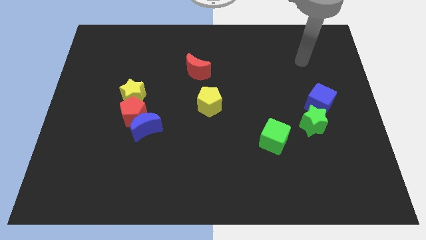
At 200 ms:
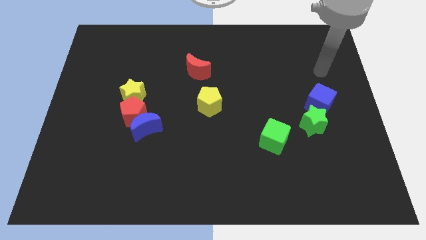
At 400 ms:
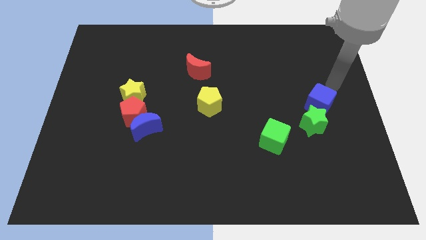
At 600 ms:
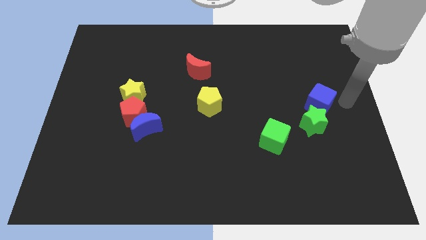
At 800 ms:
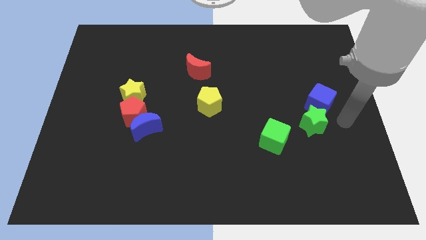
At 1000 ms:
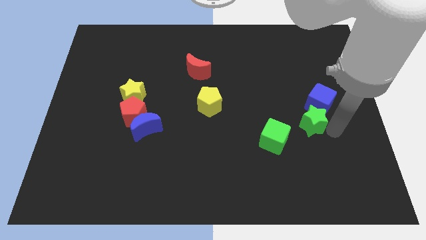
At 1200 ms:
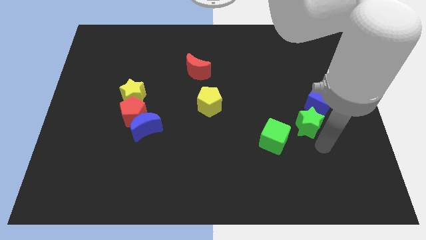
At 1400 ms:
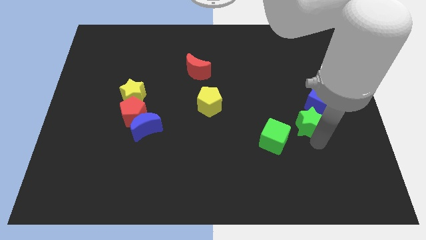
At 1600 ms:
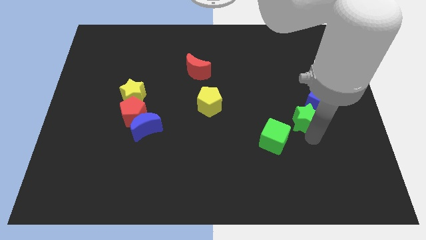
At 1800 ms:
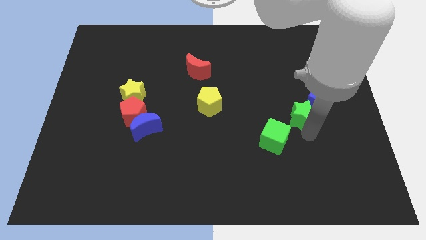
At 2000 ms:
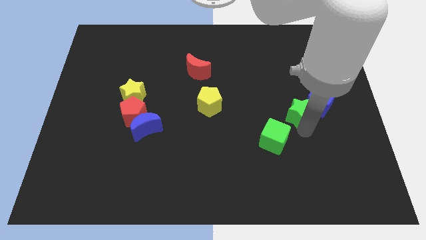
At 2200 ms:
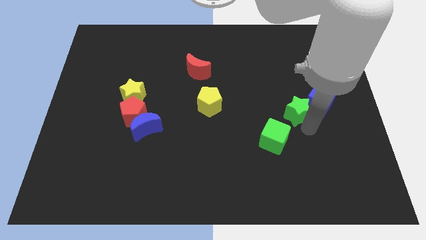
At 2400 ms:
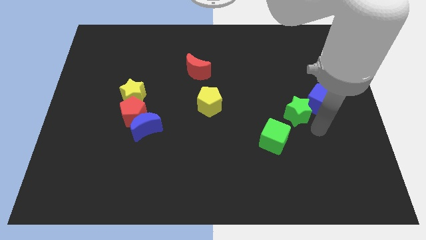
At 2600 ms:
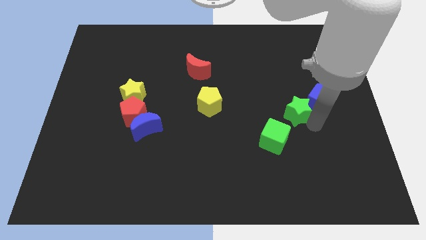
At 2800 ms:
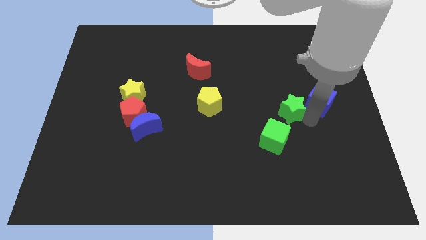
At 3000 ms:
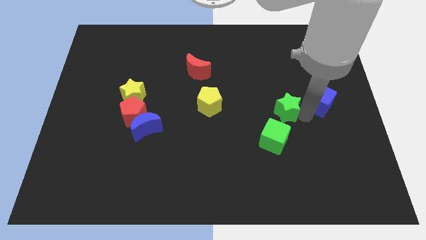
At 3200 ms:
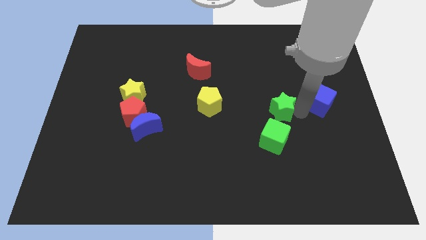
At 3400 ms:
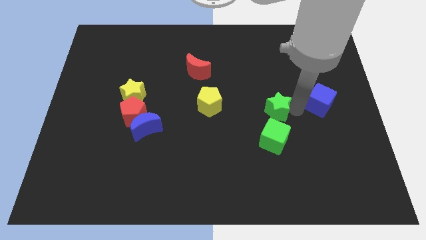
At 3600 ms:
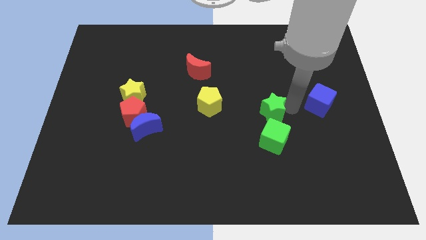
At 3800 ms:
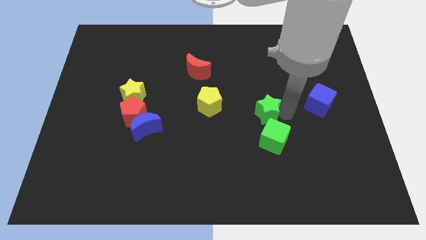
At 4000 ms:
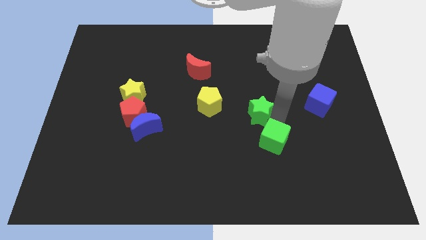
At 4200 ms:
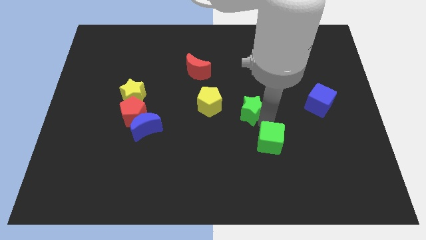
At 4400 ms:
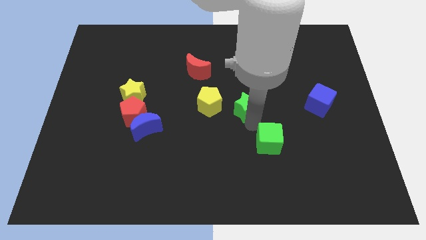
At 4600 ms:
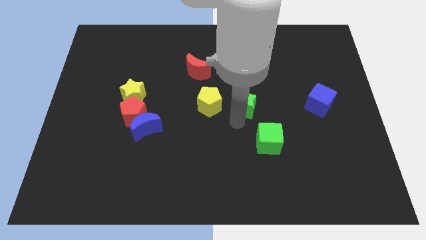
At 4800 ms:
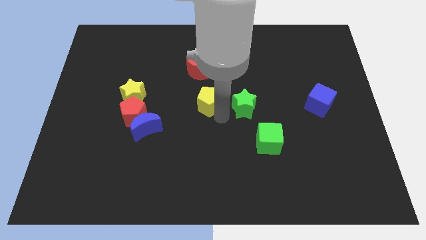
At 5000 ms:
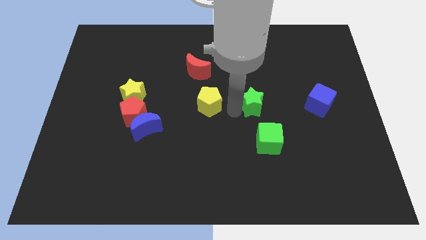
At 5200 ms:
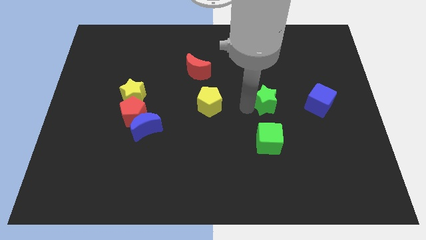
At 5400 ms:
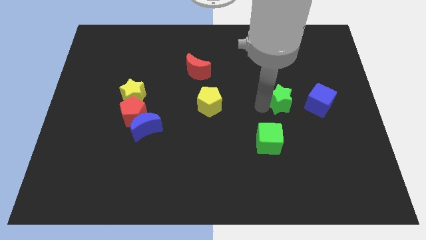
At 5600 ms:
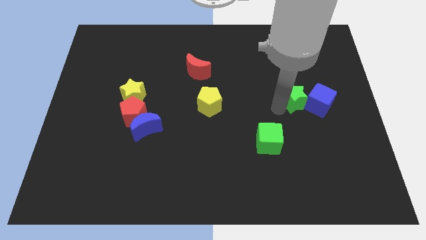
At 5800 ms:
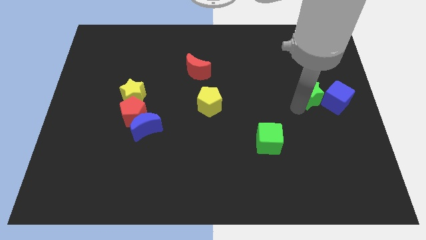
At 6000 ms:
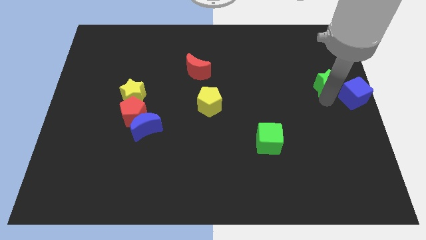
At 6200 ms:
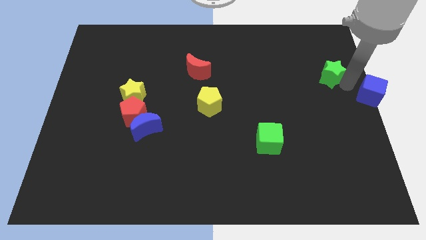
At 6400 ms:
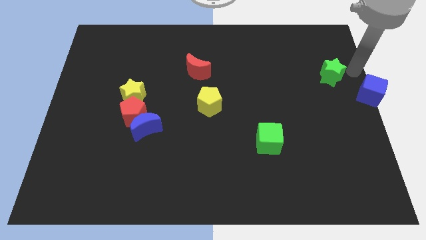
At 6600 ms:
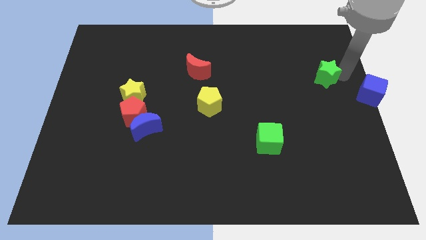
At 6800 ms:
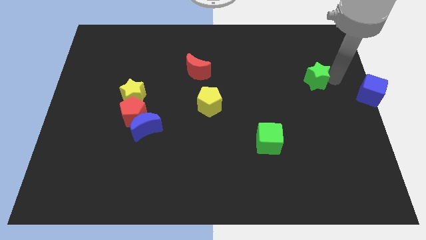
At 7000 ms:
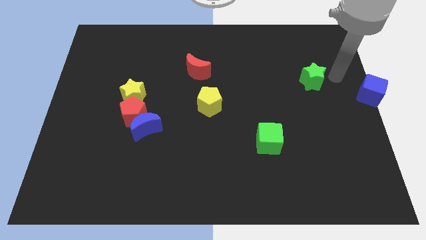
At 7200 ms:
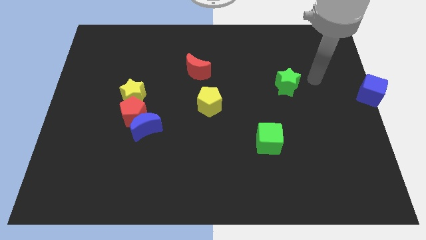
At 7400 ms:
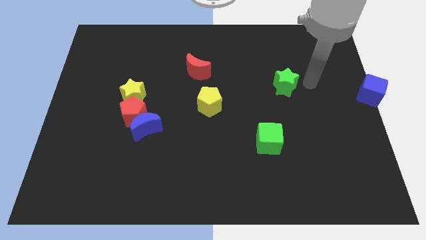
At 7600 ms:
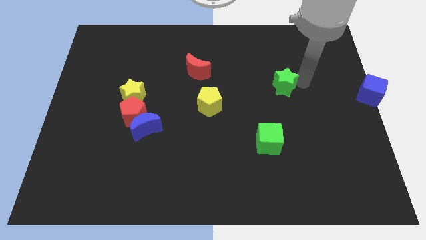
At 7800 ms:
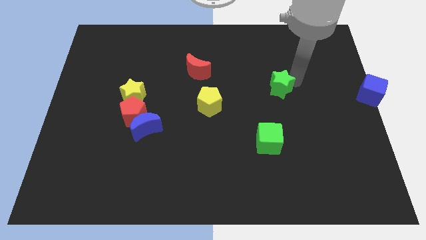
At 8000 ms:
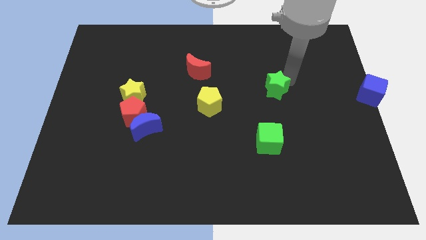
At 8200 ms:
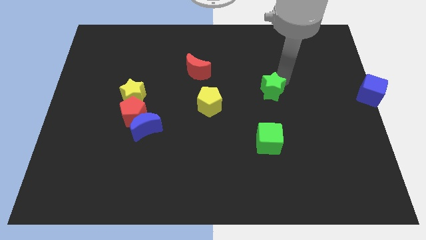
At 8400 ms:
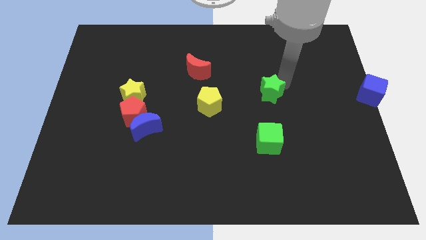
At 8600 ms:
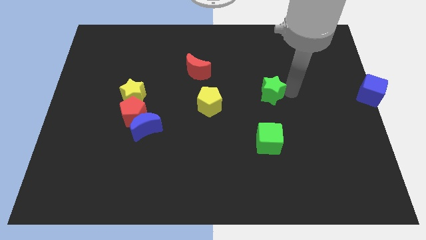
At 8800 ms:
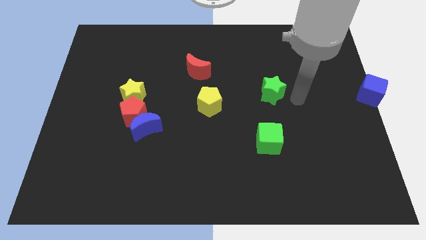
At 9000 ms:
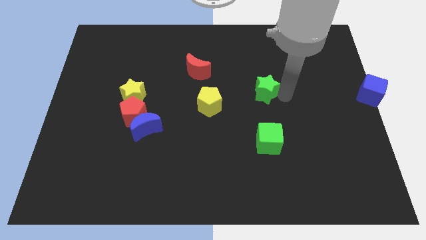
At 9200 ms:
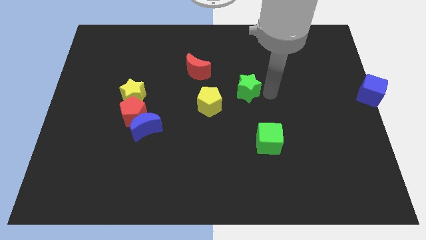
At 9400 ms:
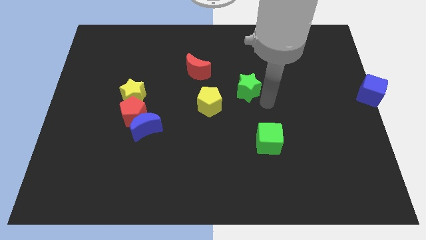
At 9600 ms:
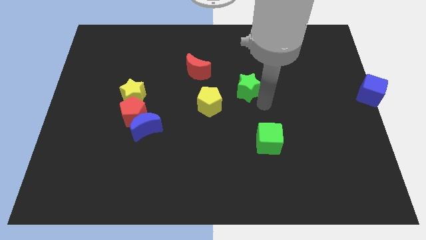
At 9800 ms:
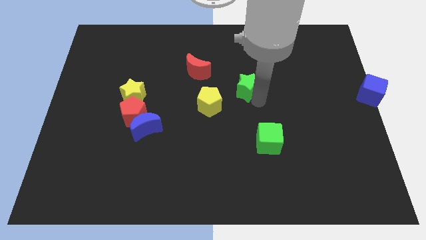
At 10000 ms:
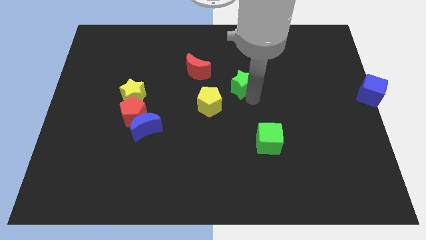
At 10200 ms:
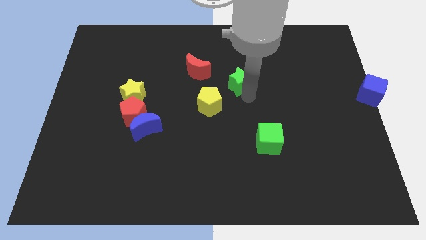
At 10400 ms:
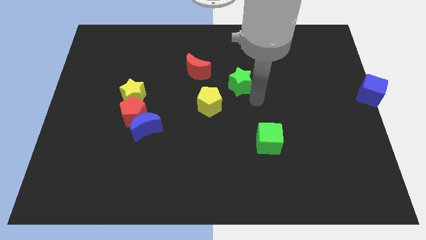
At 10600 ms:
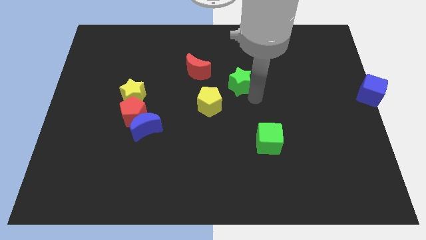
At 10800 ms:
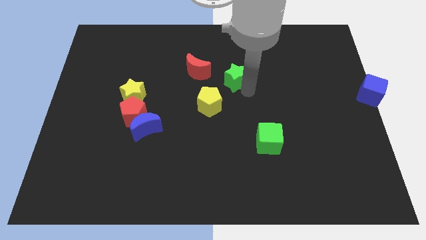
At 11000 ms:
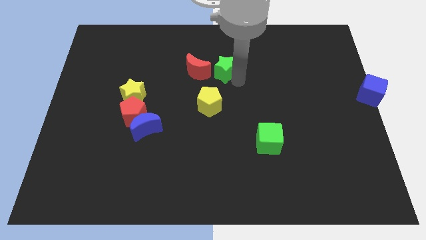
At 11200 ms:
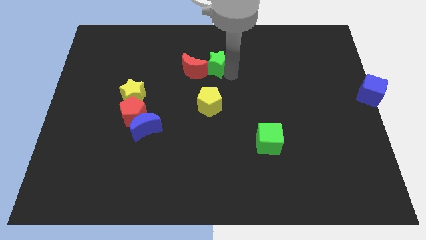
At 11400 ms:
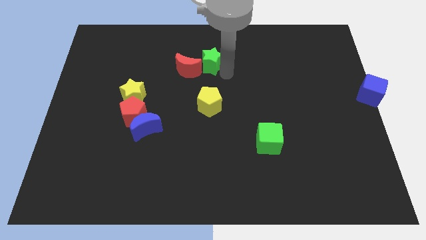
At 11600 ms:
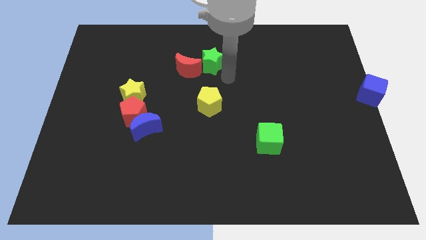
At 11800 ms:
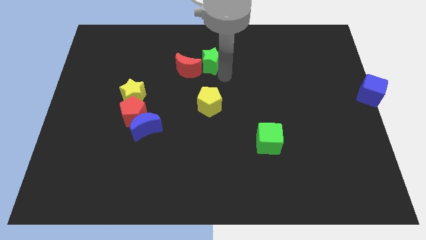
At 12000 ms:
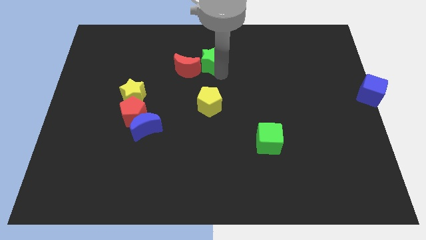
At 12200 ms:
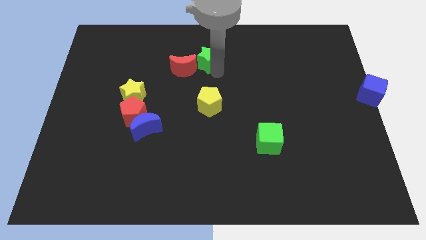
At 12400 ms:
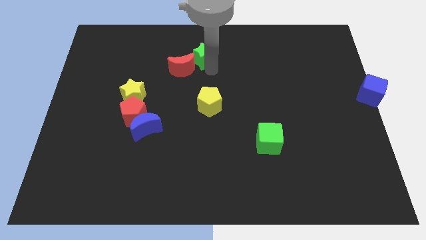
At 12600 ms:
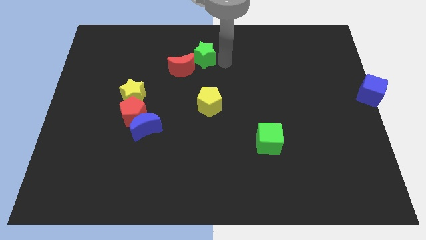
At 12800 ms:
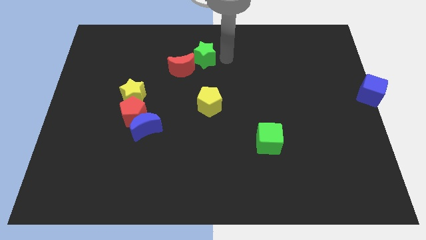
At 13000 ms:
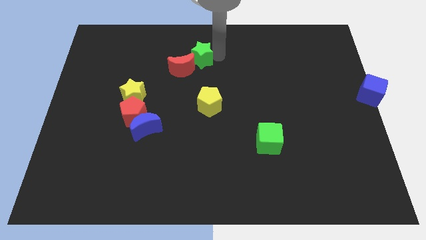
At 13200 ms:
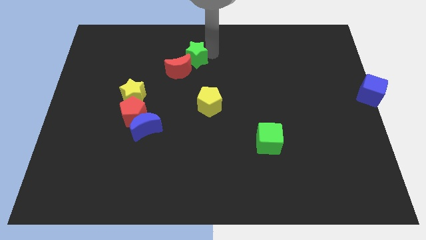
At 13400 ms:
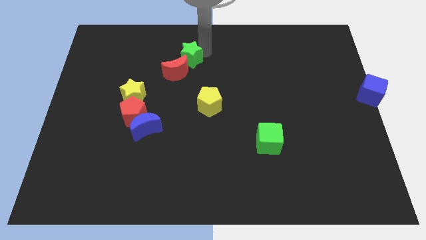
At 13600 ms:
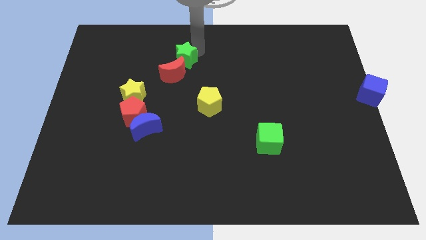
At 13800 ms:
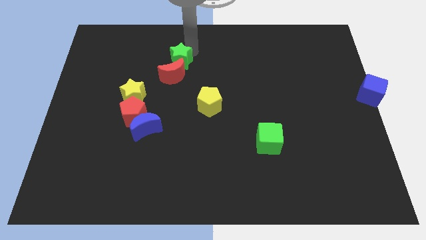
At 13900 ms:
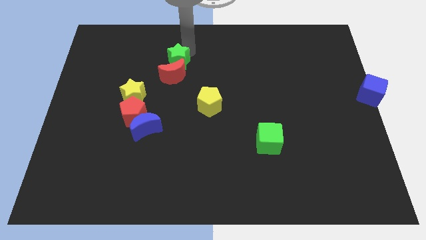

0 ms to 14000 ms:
put the green star to the top left of the red moon
